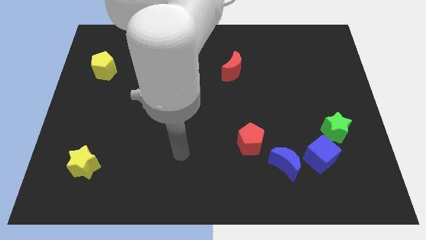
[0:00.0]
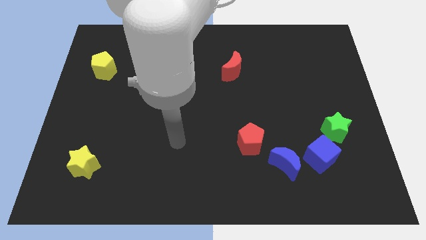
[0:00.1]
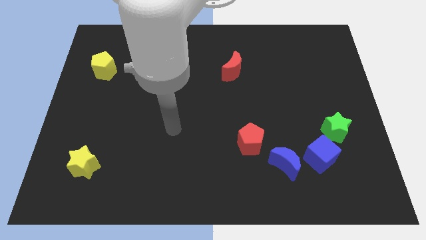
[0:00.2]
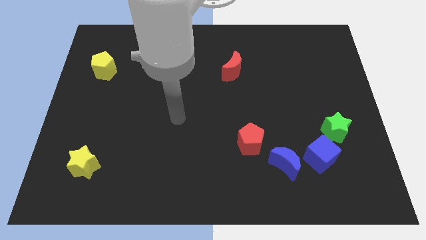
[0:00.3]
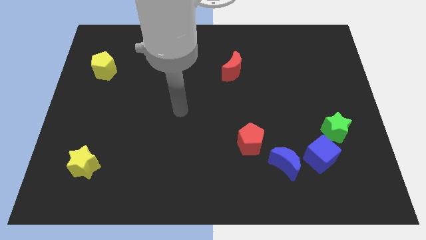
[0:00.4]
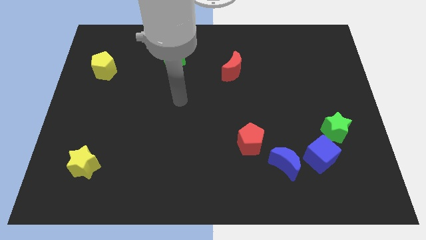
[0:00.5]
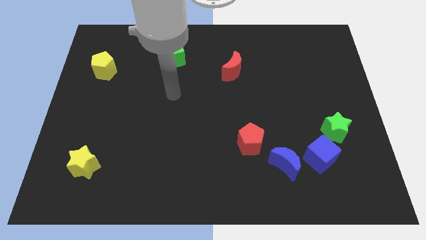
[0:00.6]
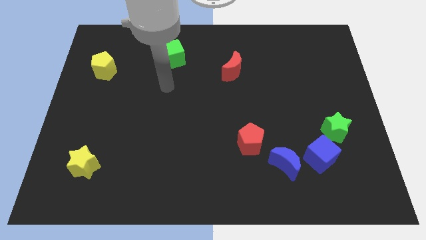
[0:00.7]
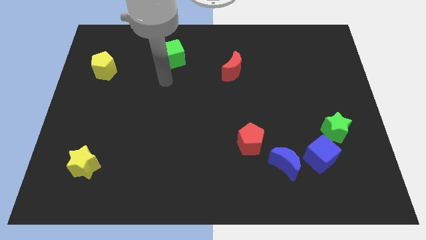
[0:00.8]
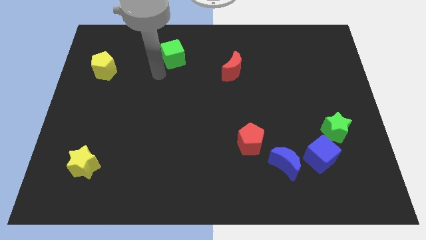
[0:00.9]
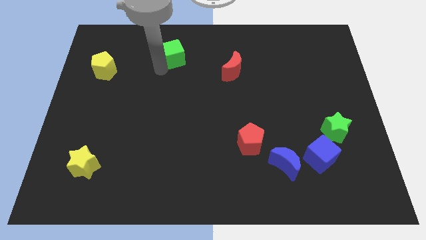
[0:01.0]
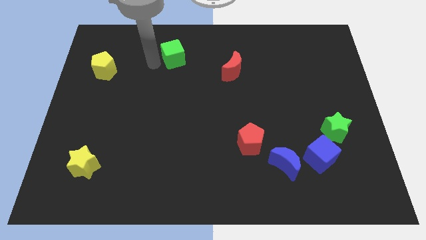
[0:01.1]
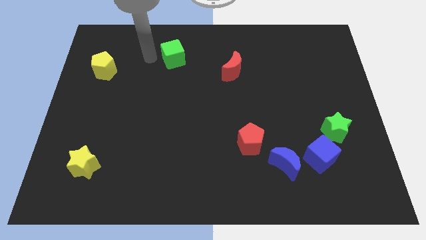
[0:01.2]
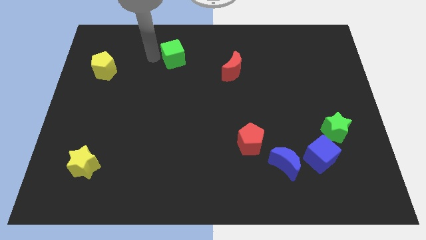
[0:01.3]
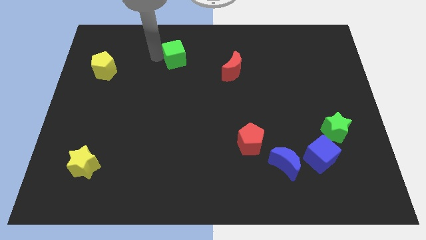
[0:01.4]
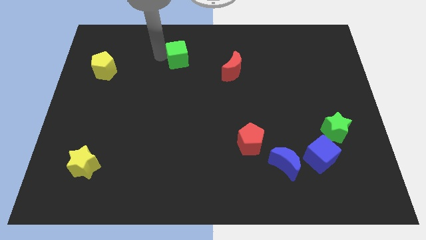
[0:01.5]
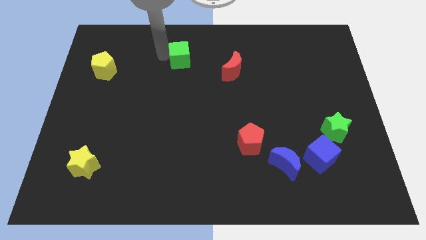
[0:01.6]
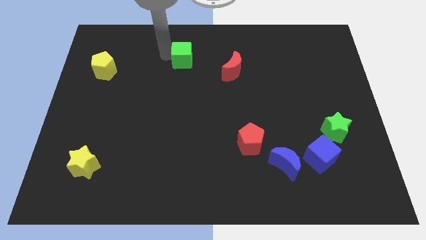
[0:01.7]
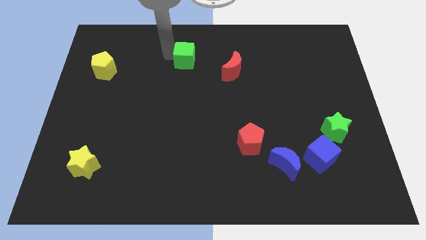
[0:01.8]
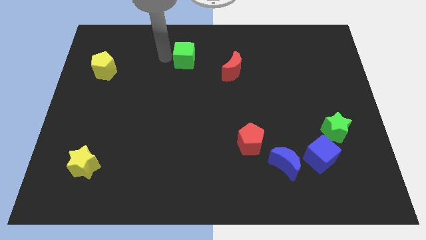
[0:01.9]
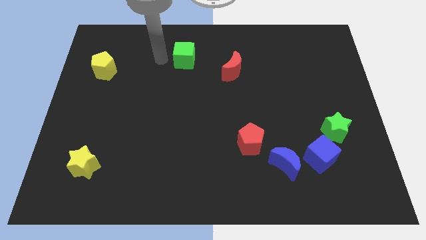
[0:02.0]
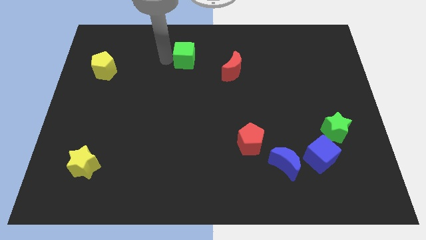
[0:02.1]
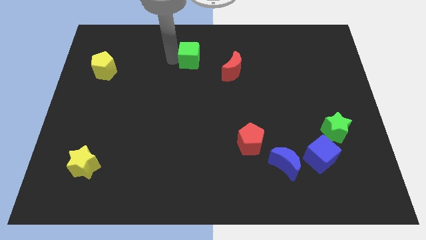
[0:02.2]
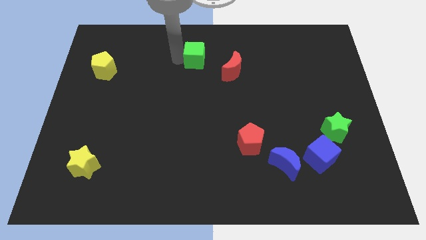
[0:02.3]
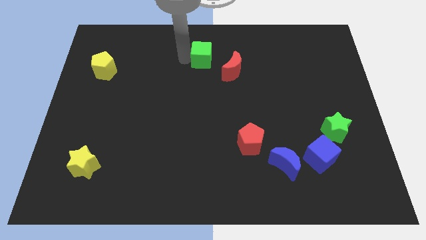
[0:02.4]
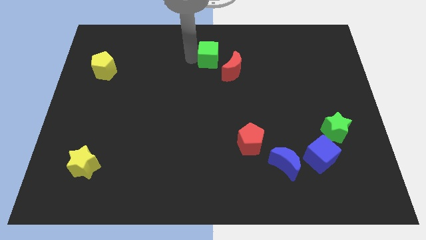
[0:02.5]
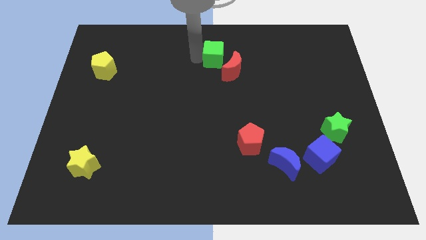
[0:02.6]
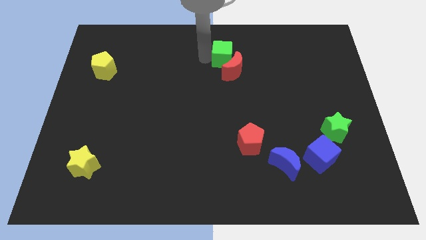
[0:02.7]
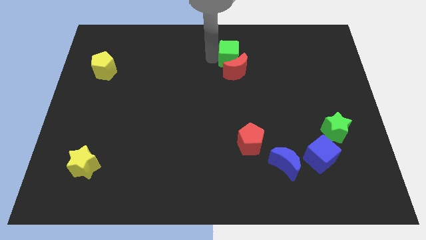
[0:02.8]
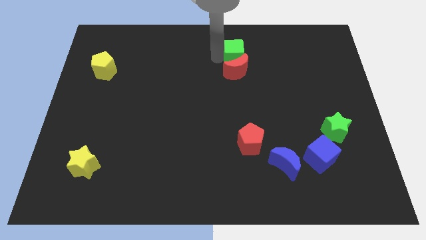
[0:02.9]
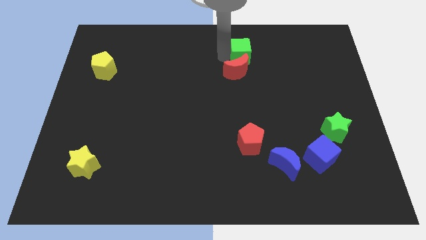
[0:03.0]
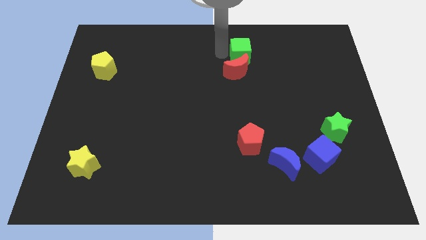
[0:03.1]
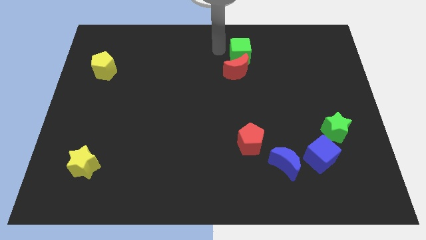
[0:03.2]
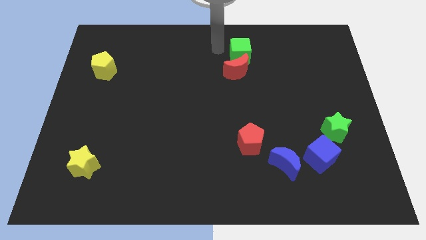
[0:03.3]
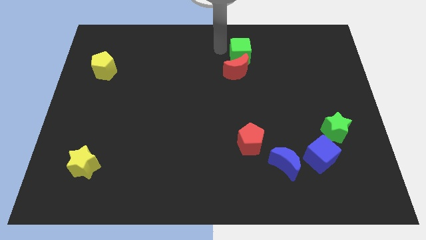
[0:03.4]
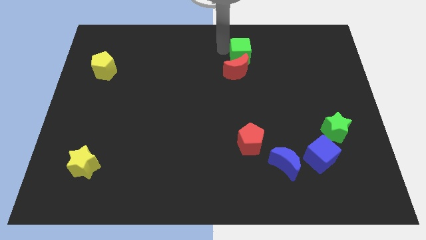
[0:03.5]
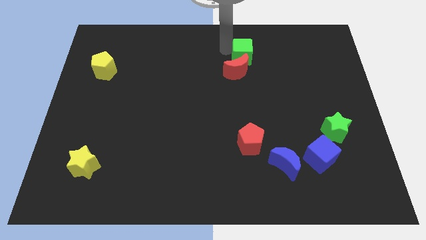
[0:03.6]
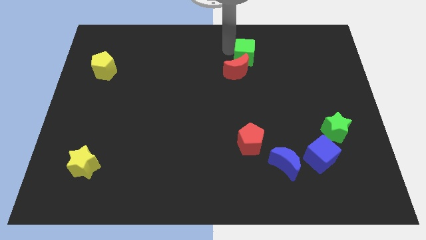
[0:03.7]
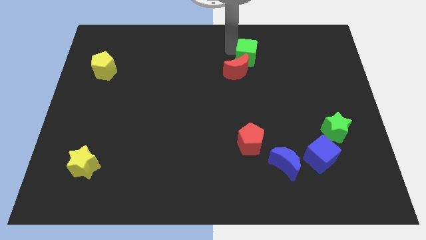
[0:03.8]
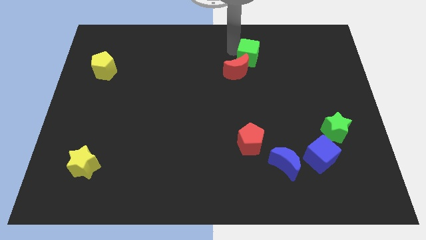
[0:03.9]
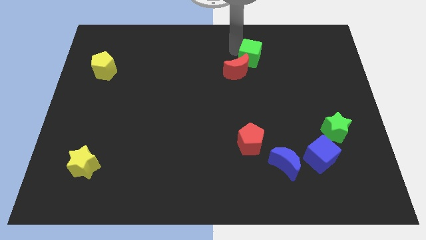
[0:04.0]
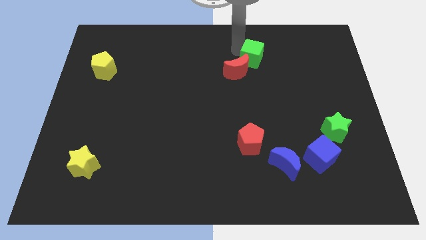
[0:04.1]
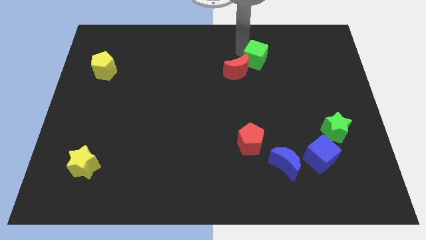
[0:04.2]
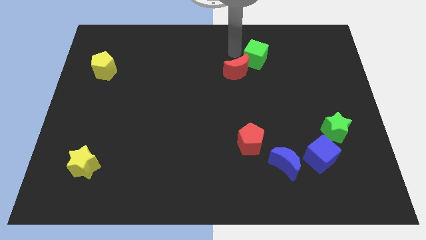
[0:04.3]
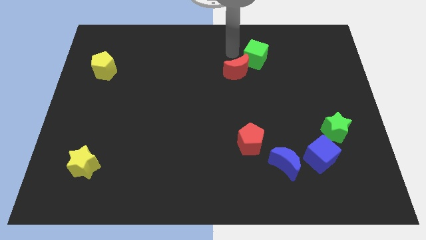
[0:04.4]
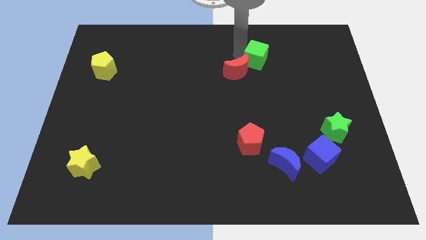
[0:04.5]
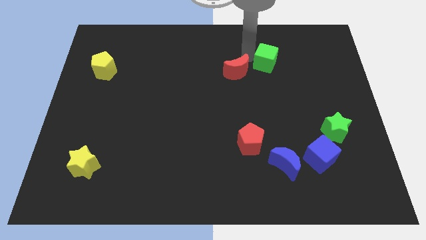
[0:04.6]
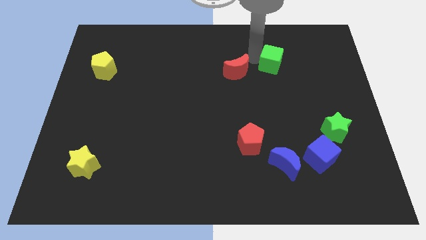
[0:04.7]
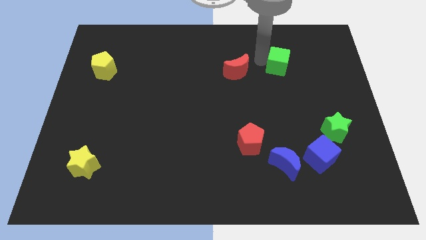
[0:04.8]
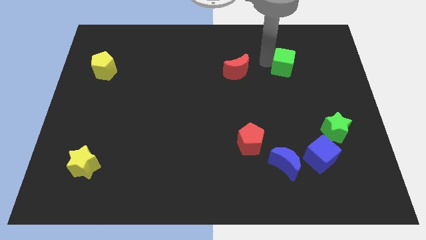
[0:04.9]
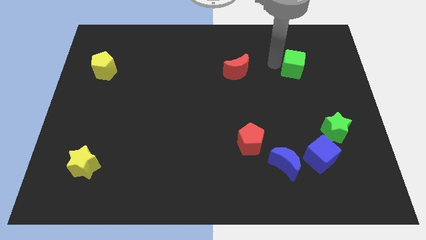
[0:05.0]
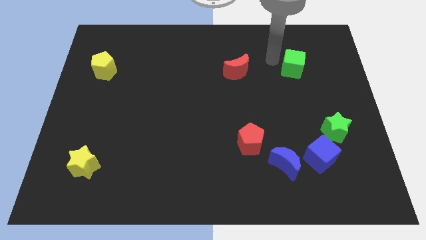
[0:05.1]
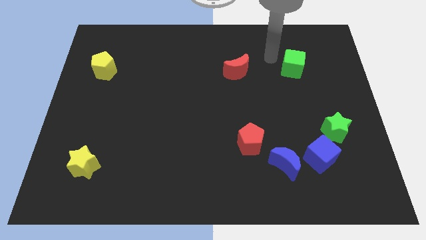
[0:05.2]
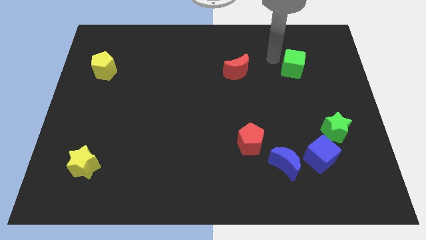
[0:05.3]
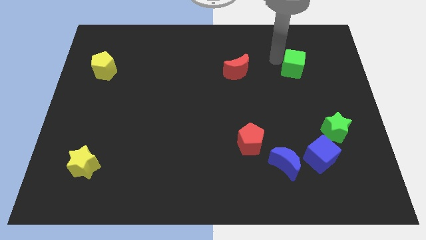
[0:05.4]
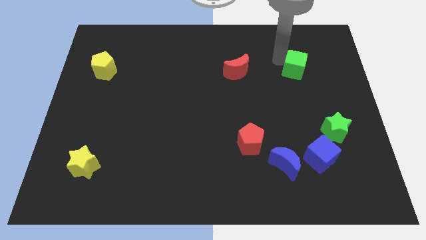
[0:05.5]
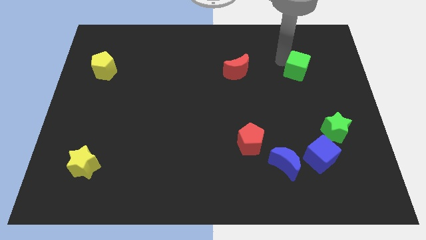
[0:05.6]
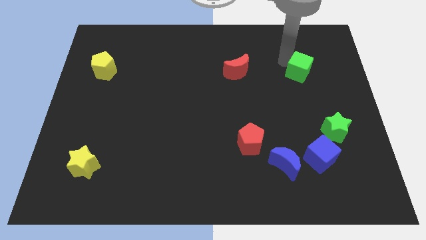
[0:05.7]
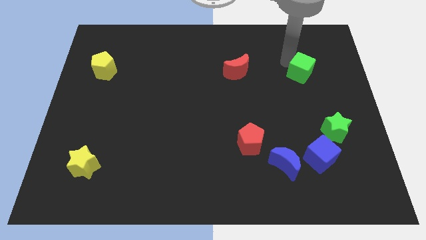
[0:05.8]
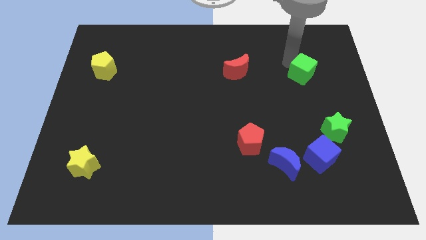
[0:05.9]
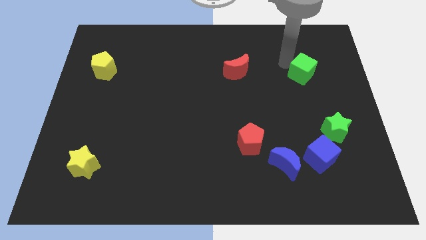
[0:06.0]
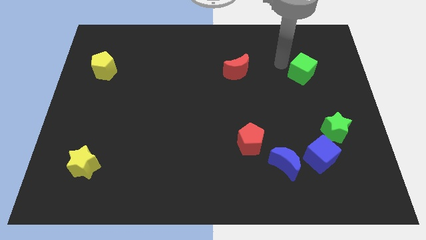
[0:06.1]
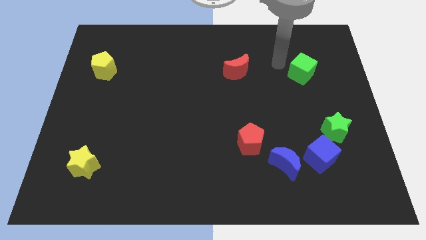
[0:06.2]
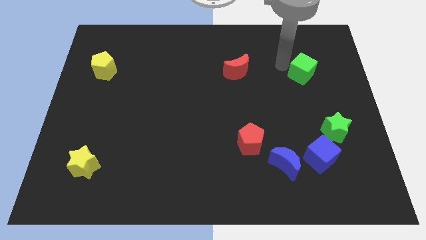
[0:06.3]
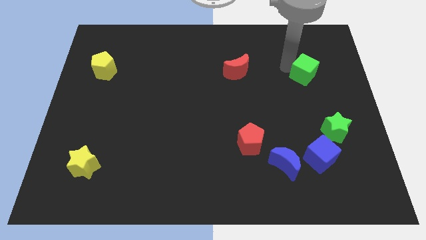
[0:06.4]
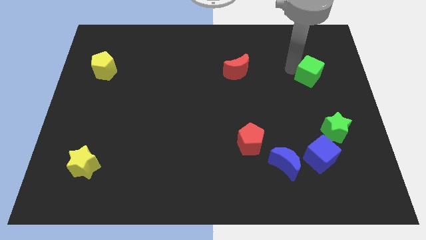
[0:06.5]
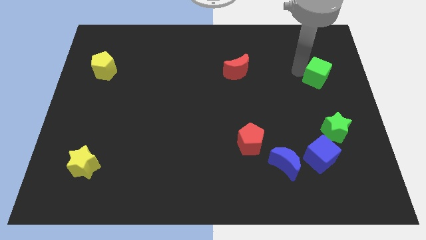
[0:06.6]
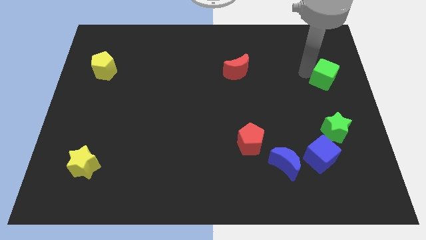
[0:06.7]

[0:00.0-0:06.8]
put the green cube to the center right
